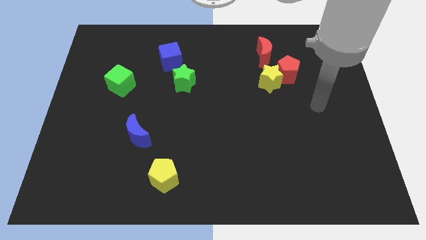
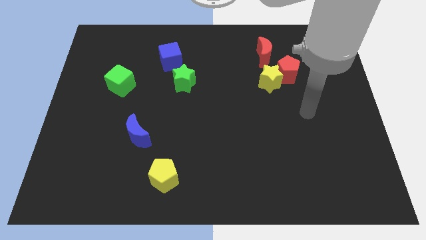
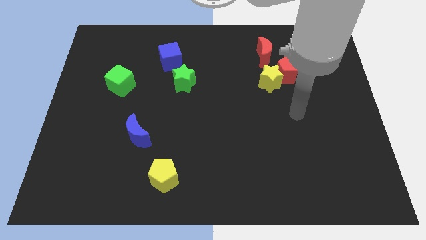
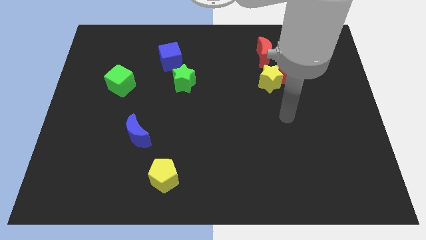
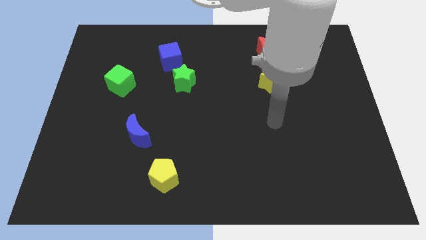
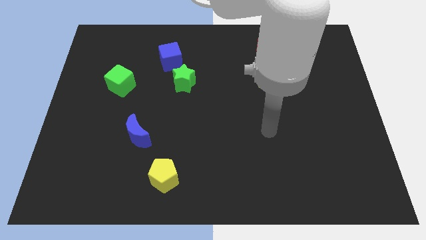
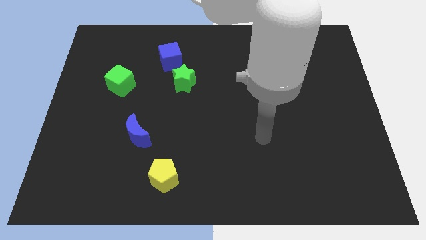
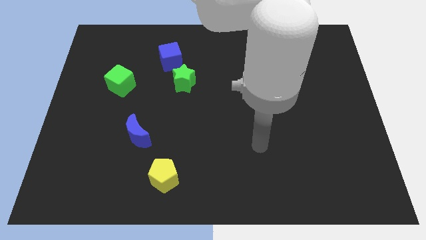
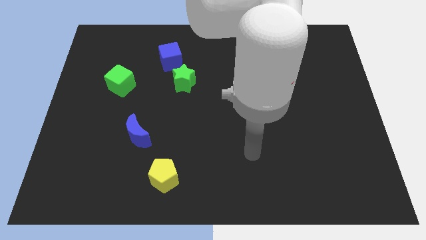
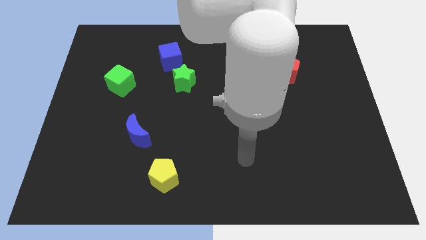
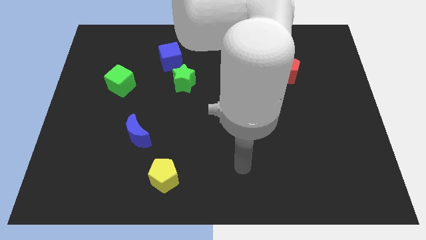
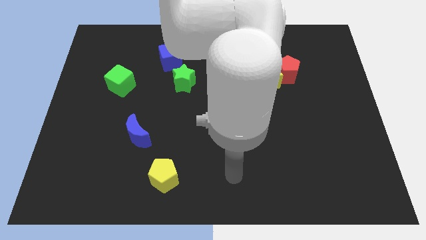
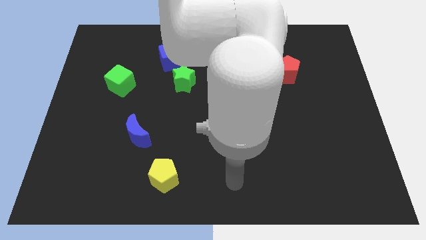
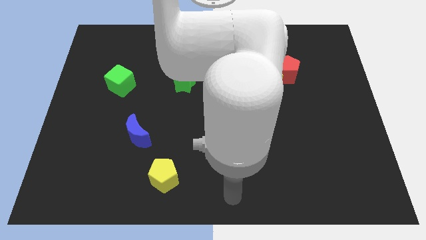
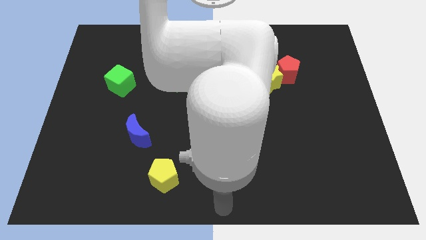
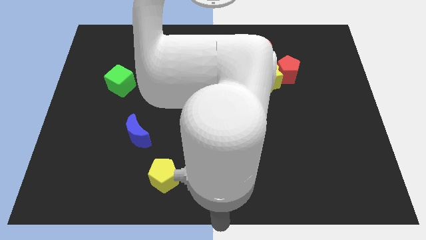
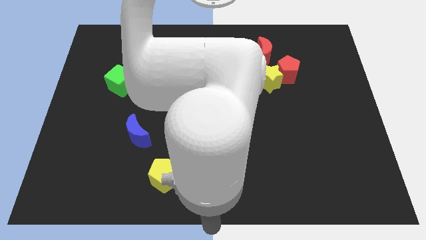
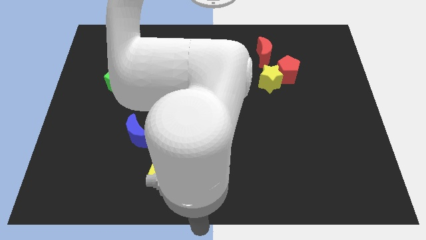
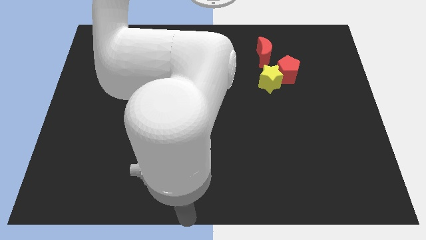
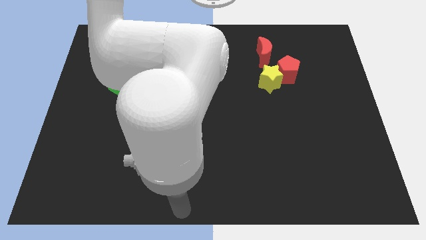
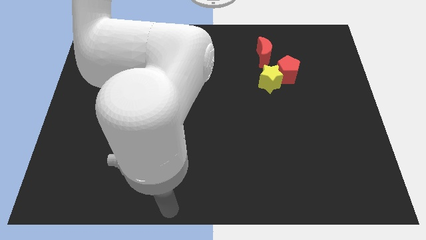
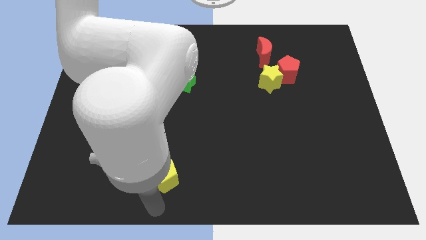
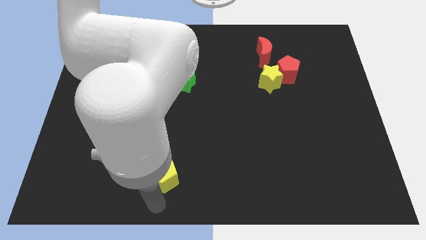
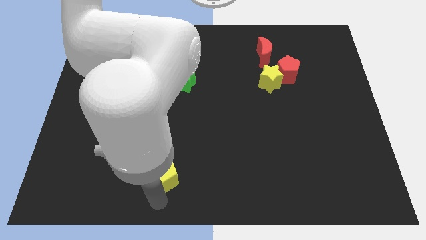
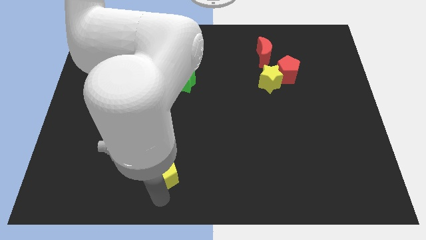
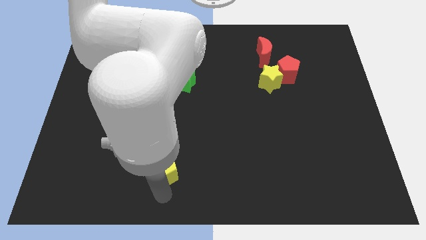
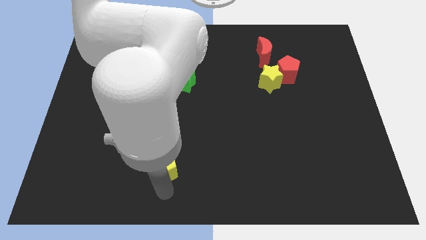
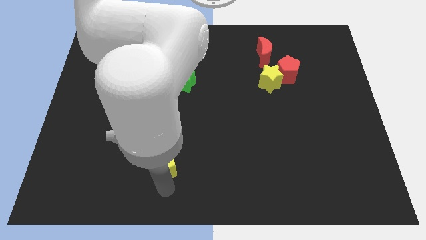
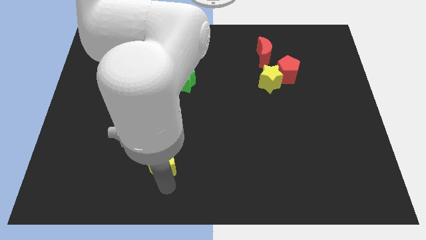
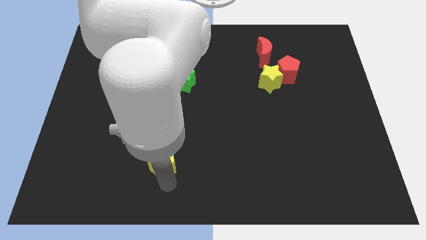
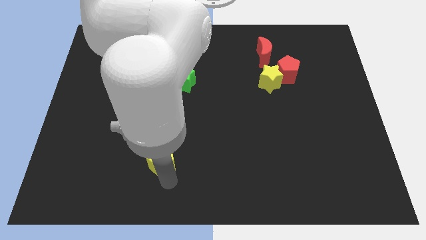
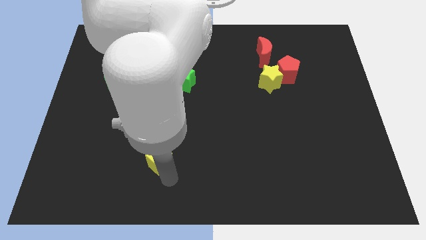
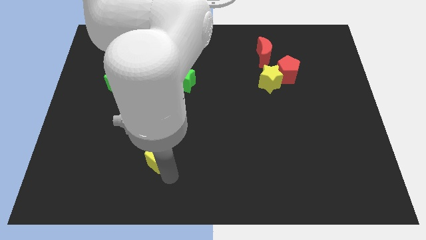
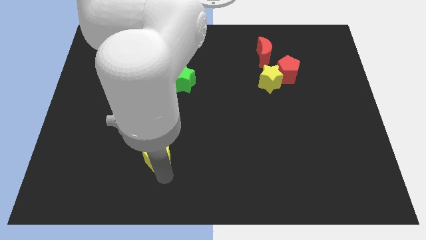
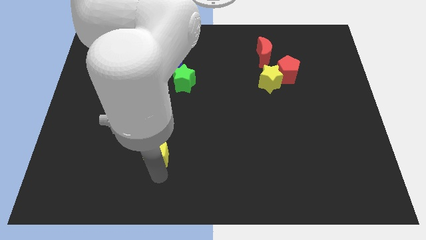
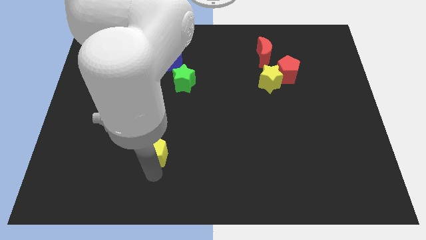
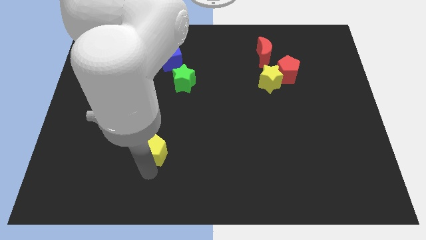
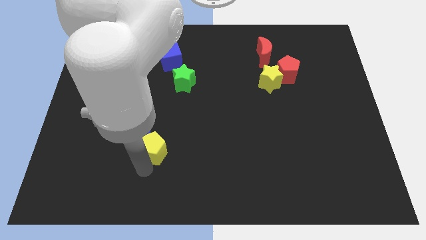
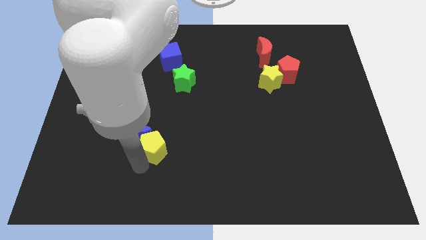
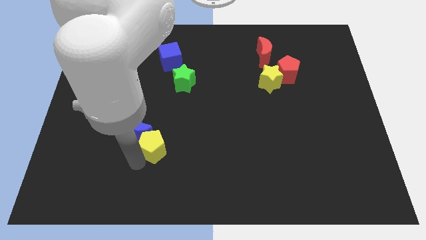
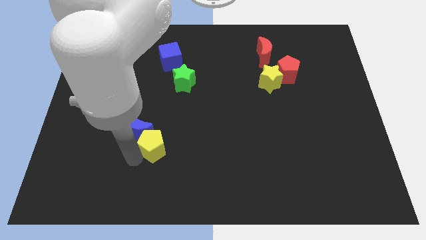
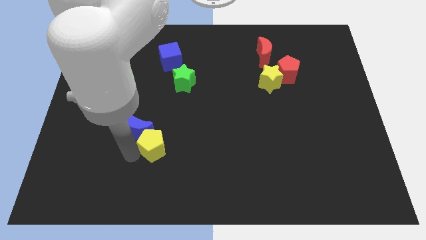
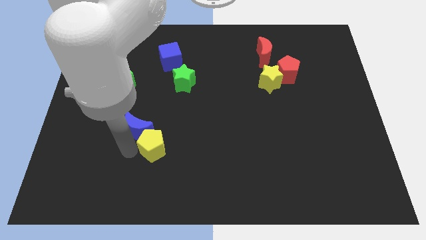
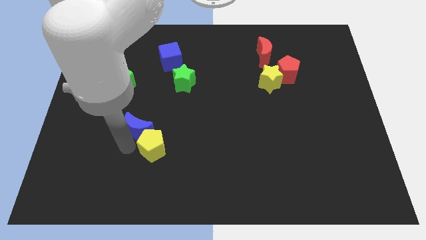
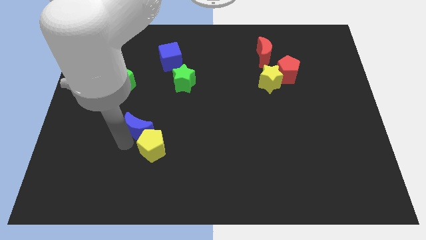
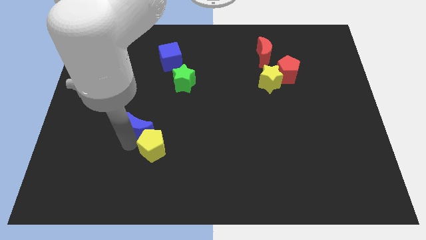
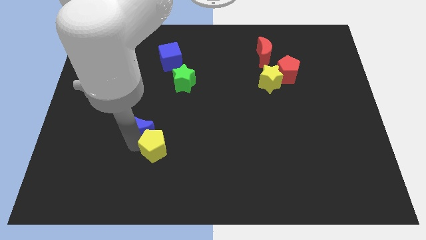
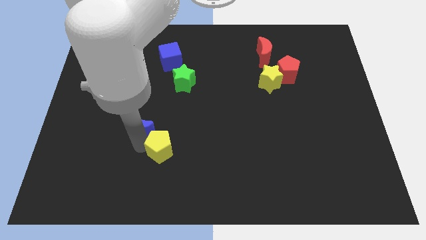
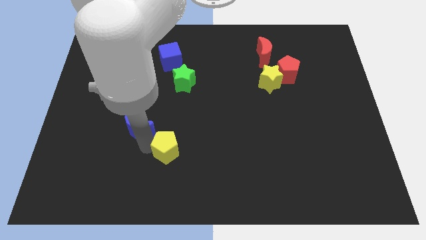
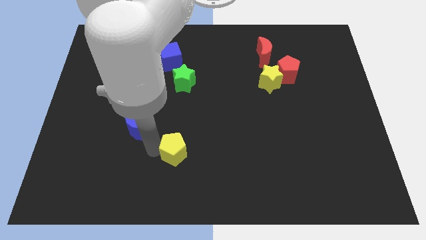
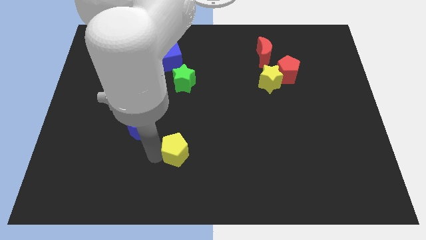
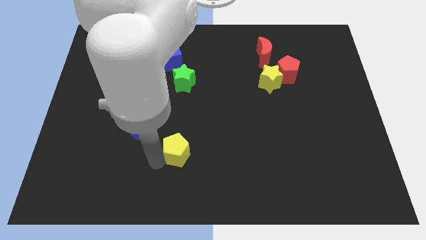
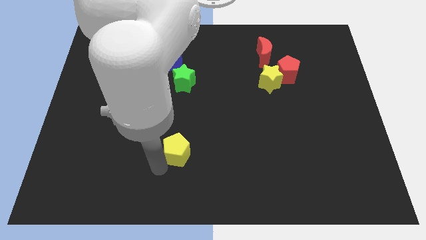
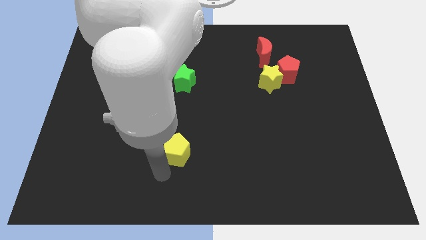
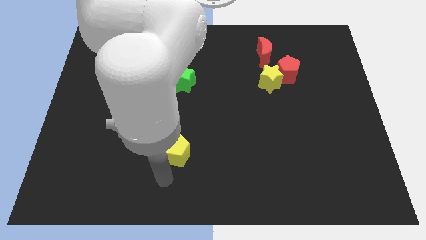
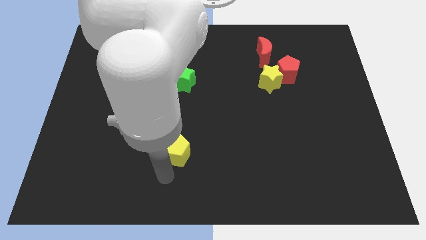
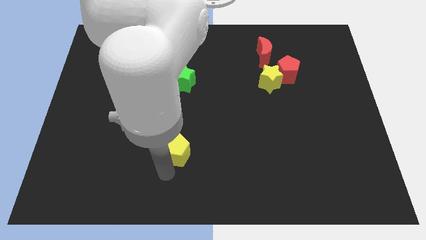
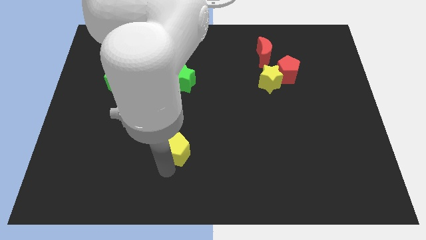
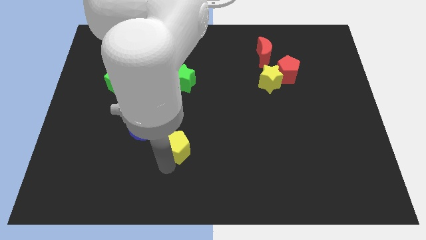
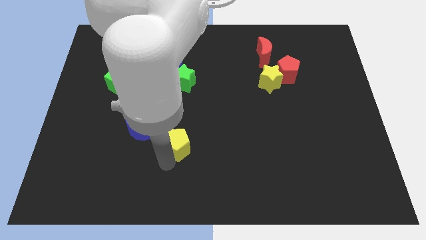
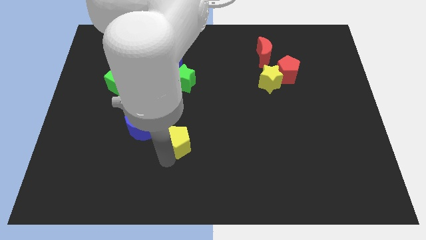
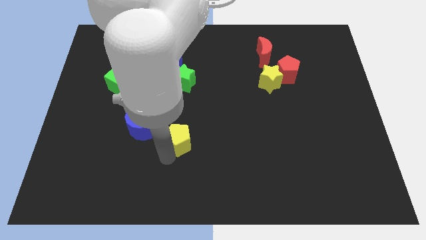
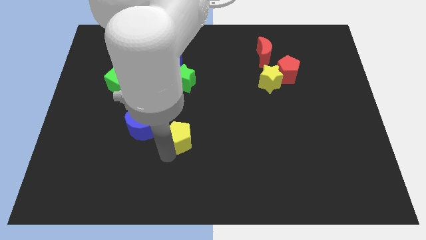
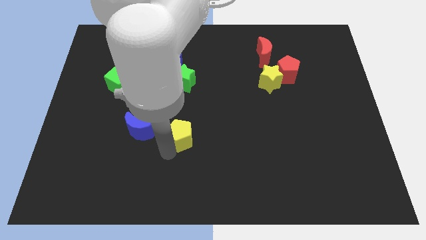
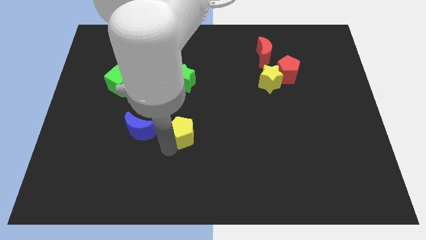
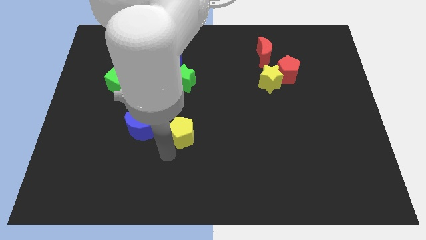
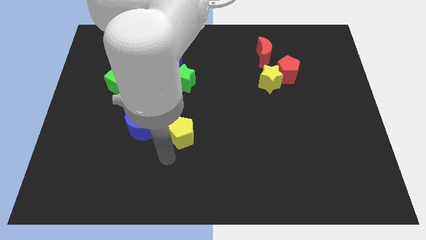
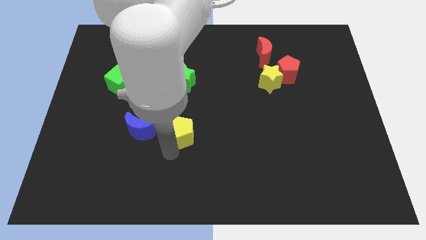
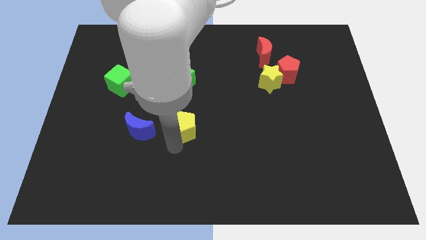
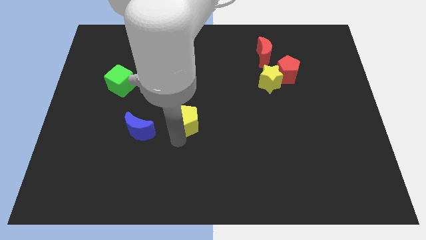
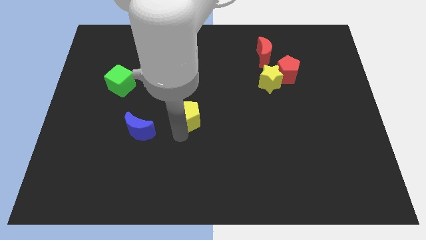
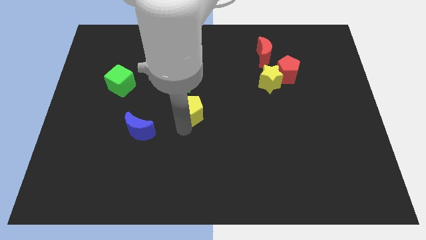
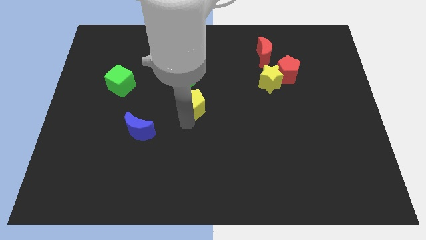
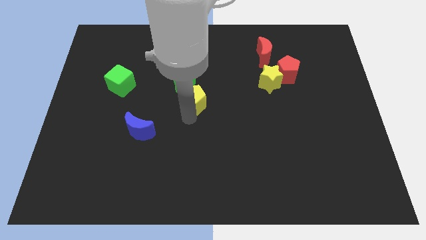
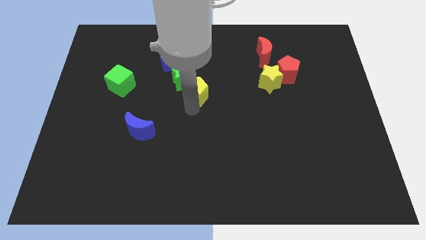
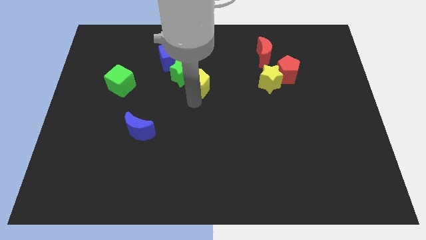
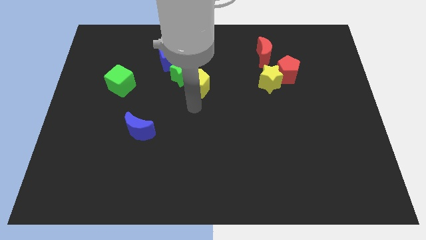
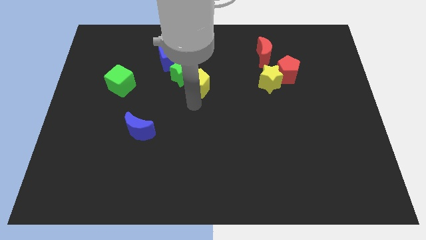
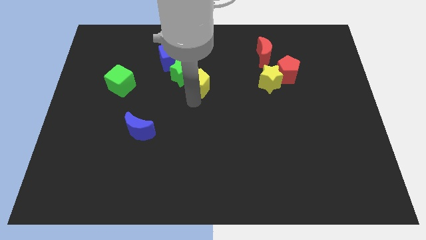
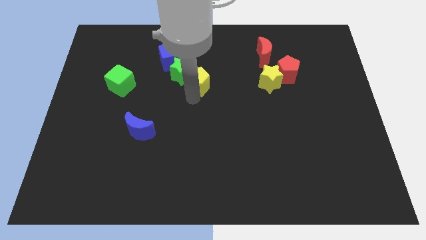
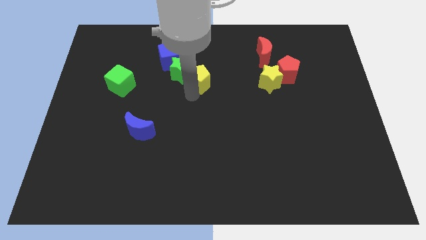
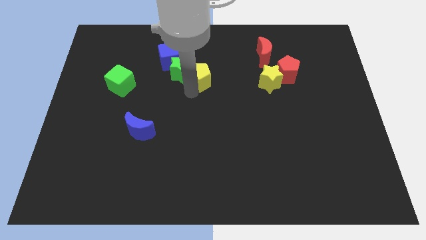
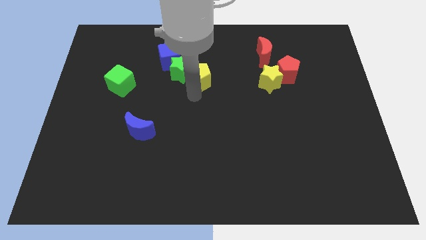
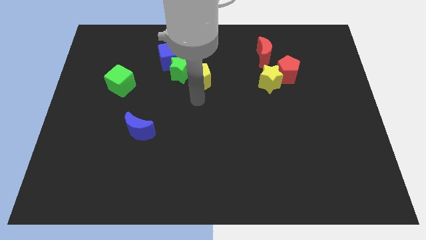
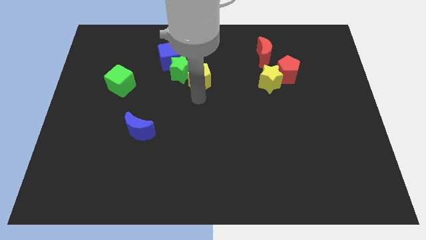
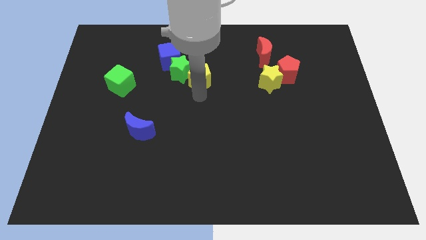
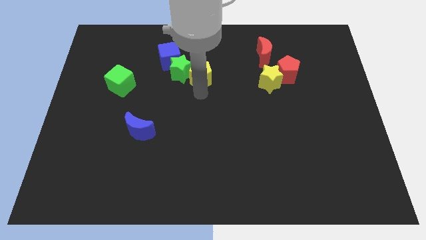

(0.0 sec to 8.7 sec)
move the yellow pentagon to the top right side of the green star
